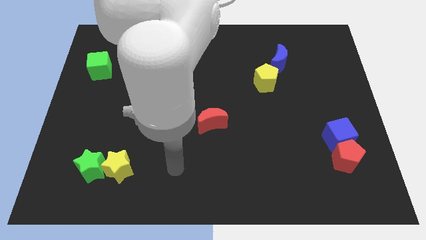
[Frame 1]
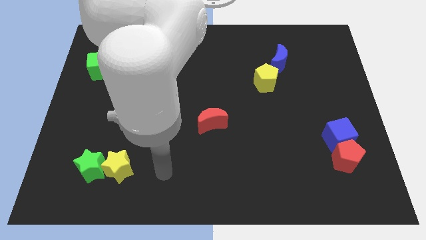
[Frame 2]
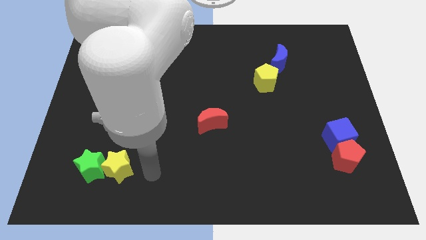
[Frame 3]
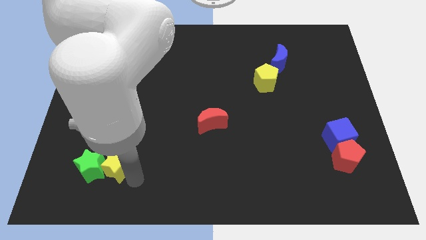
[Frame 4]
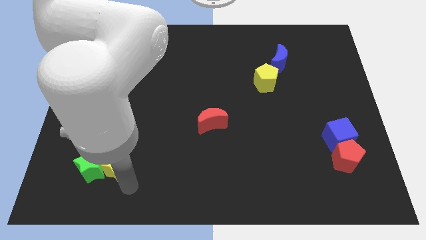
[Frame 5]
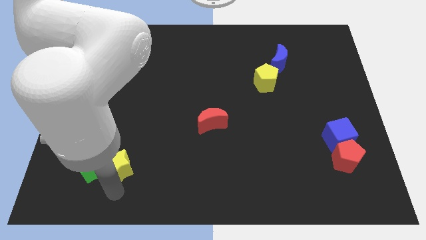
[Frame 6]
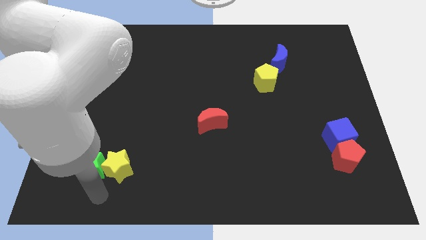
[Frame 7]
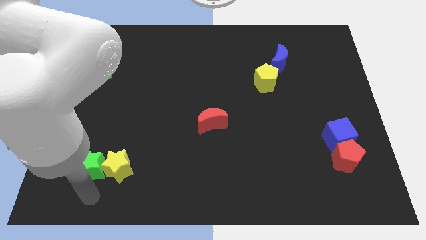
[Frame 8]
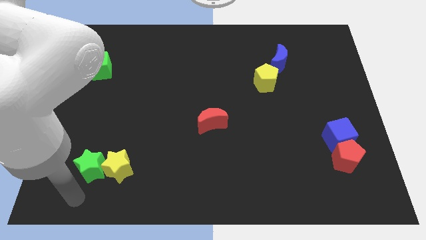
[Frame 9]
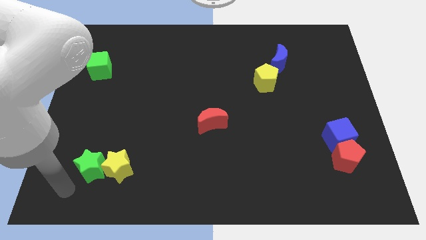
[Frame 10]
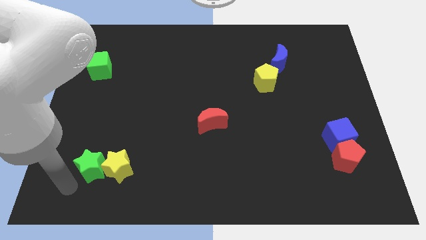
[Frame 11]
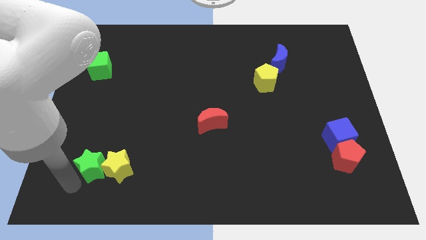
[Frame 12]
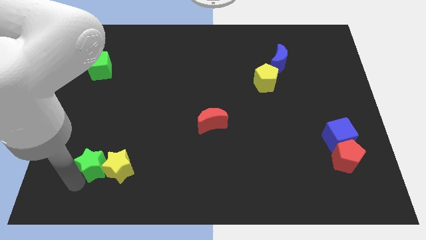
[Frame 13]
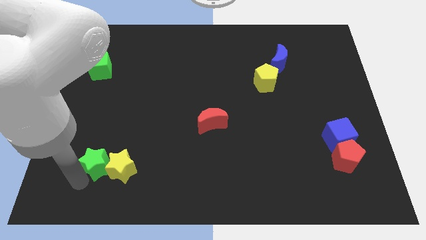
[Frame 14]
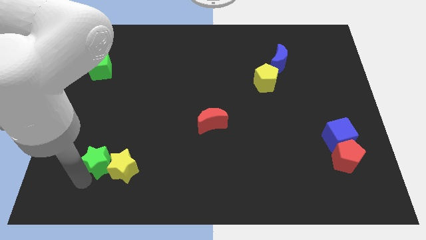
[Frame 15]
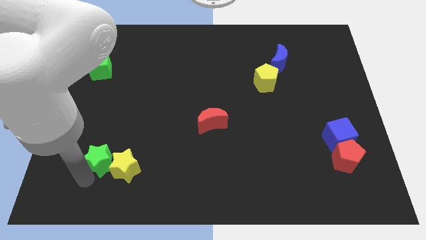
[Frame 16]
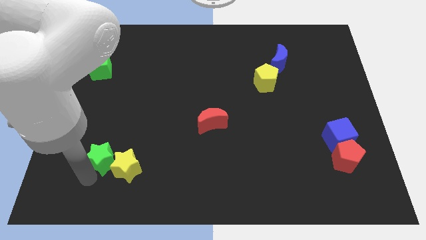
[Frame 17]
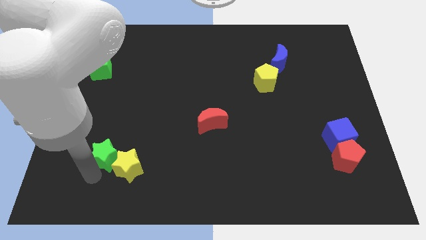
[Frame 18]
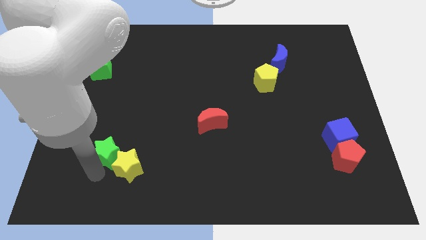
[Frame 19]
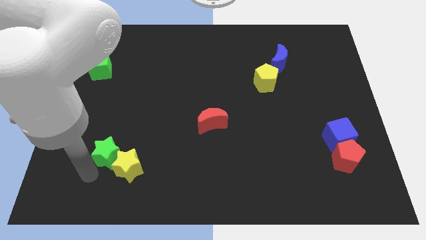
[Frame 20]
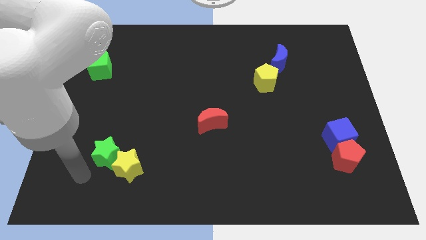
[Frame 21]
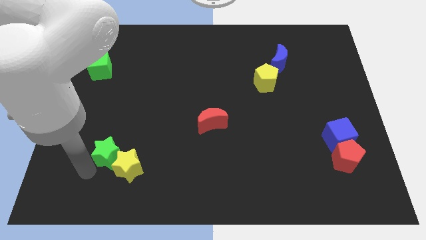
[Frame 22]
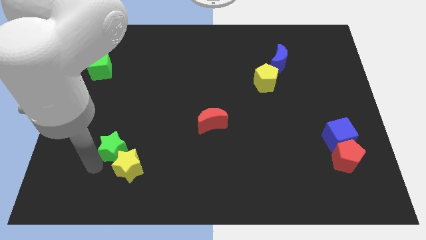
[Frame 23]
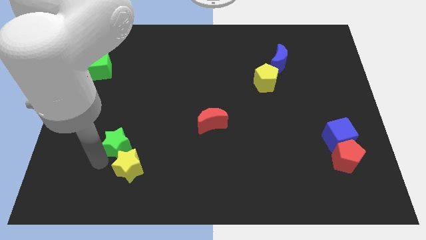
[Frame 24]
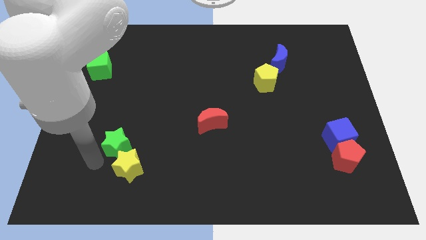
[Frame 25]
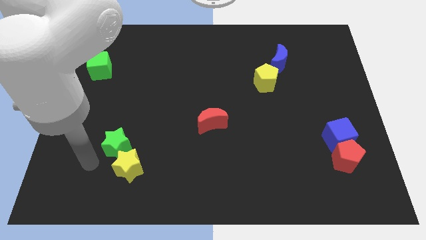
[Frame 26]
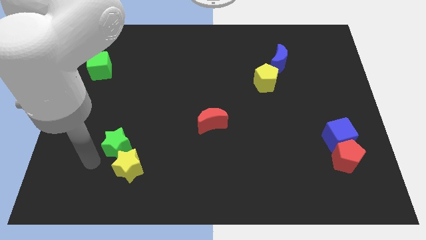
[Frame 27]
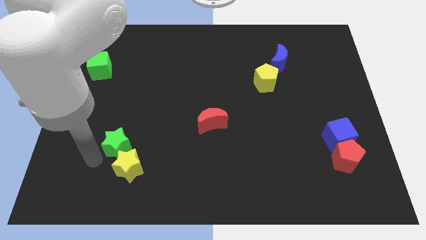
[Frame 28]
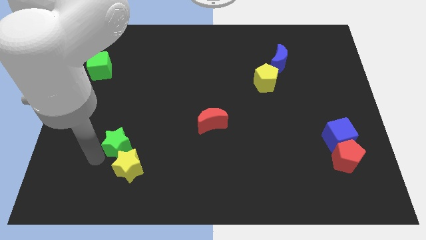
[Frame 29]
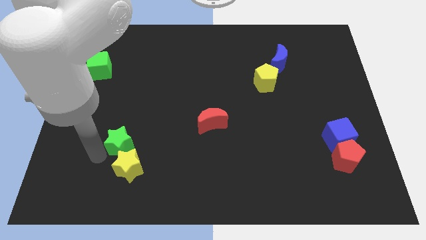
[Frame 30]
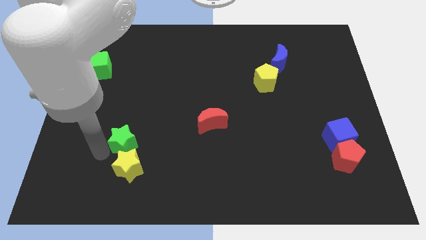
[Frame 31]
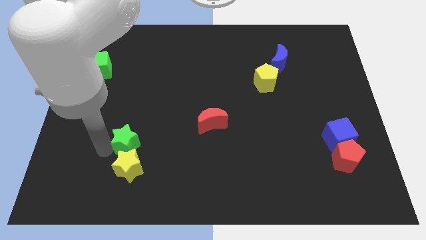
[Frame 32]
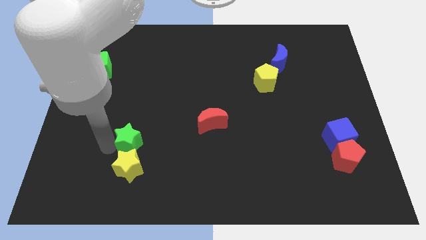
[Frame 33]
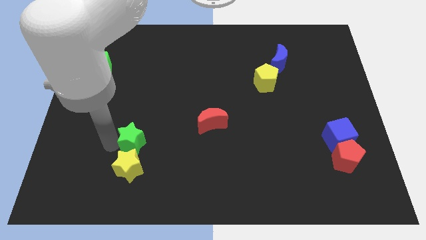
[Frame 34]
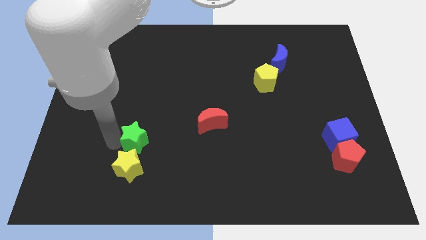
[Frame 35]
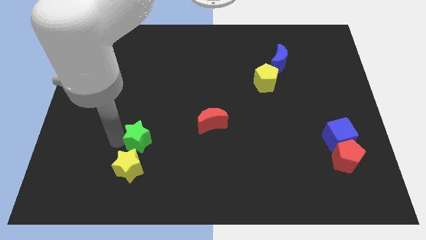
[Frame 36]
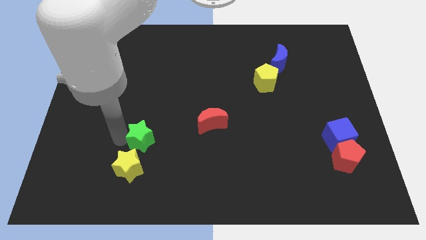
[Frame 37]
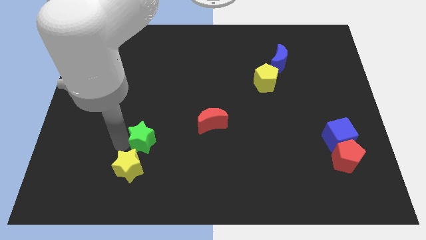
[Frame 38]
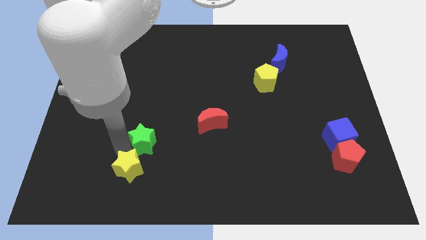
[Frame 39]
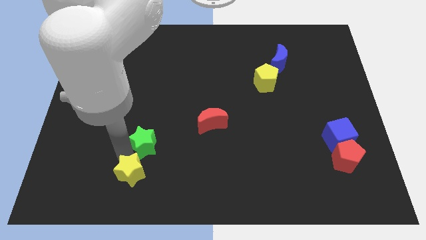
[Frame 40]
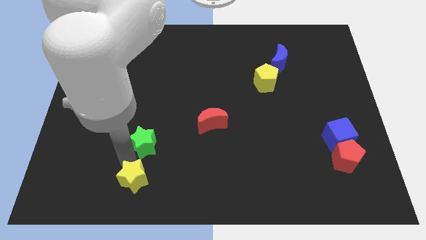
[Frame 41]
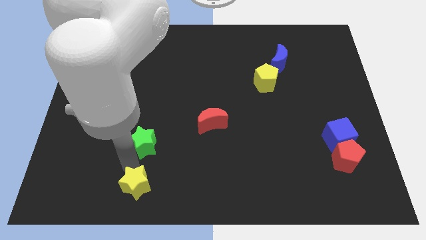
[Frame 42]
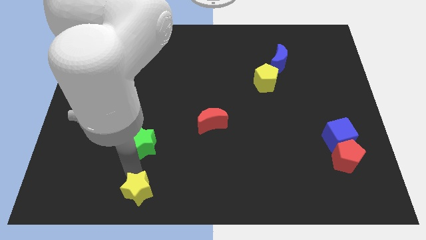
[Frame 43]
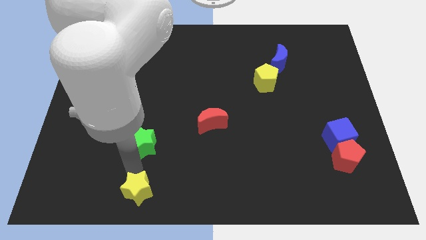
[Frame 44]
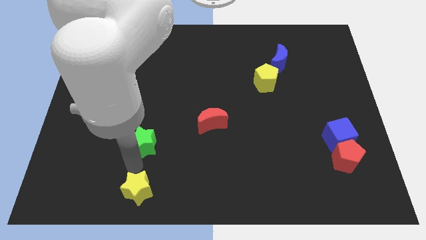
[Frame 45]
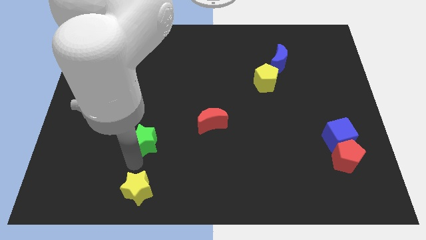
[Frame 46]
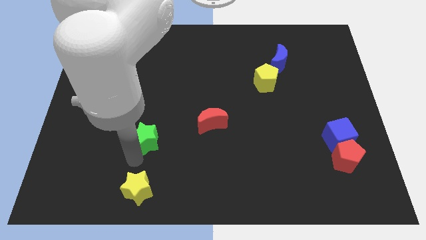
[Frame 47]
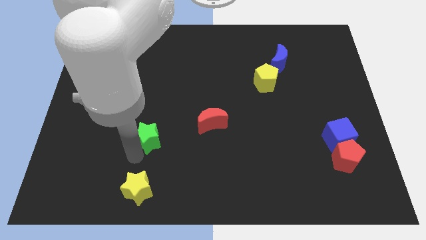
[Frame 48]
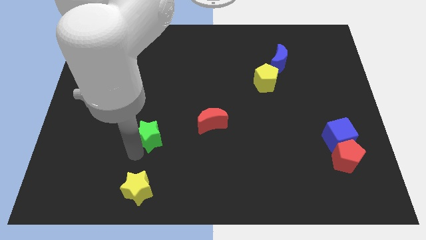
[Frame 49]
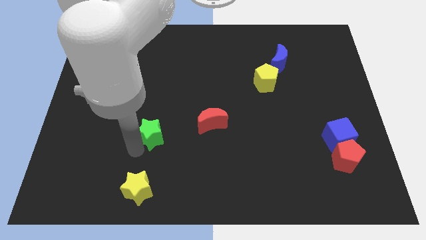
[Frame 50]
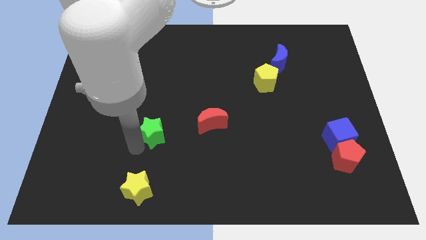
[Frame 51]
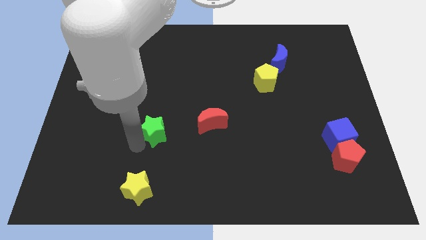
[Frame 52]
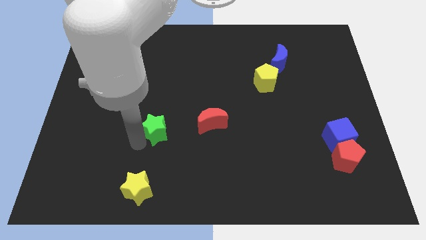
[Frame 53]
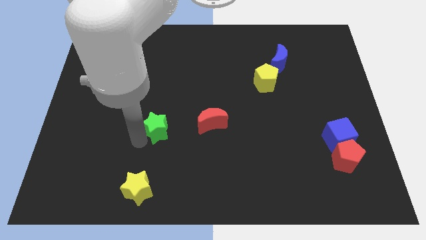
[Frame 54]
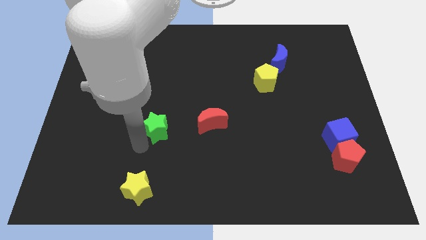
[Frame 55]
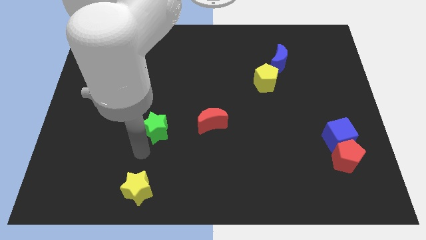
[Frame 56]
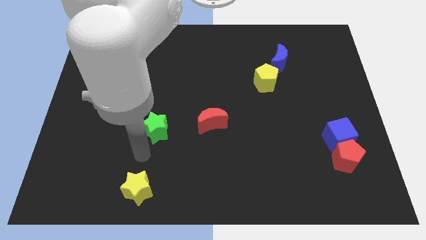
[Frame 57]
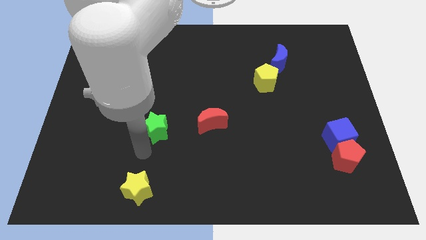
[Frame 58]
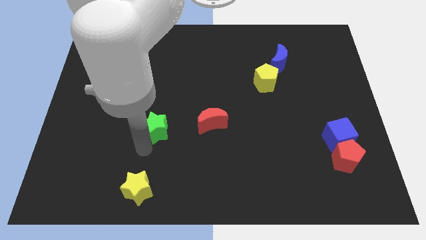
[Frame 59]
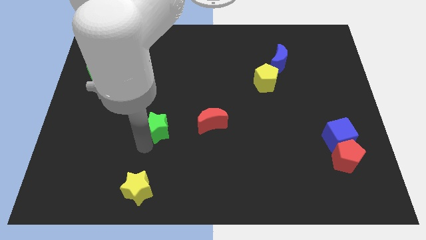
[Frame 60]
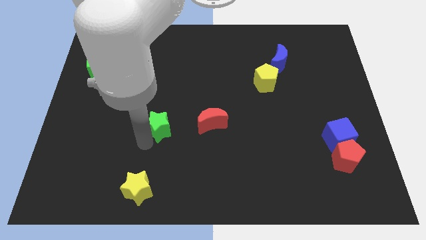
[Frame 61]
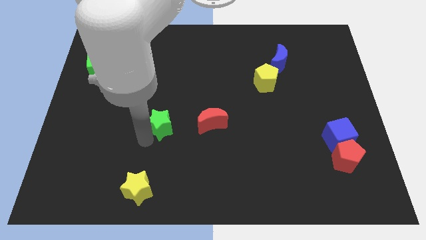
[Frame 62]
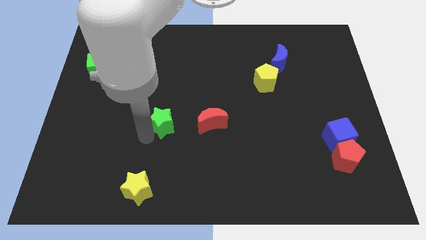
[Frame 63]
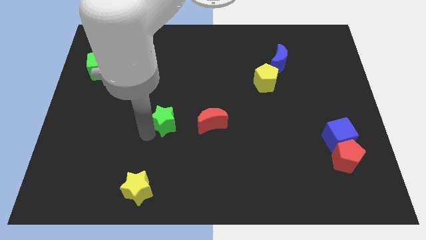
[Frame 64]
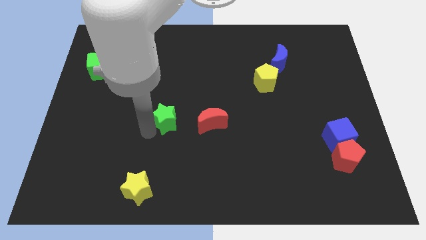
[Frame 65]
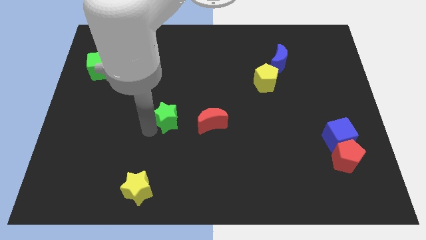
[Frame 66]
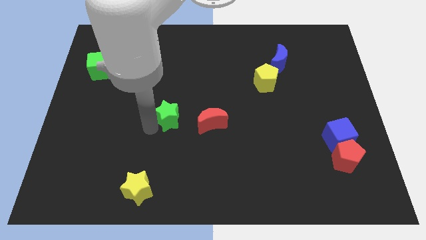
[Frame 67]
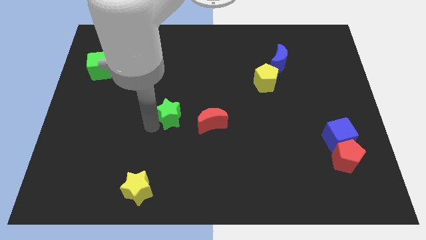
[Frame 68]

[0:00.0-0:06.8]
slide the green star diagonally upwards and to the right

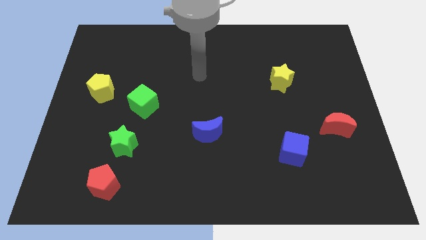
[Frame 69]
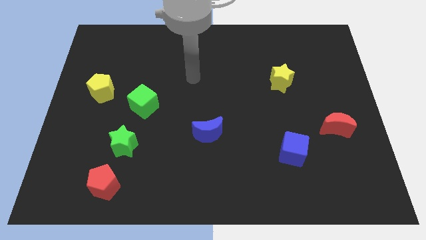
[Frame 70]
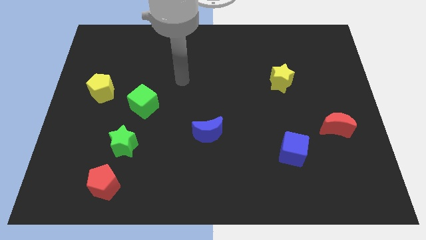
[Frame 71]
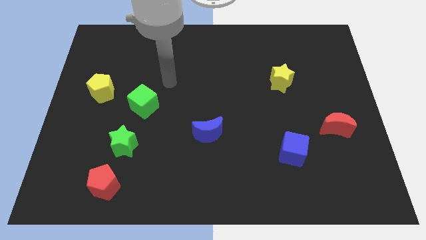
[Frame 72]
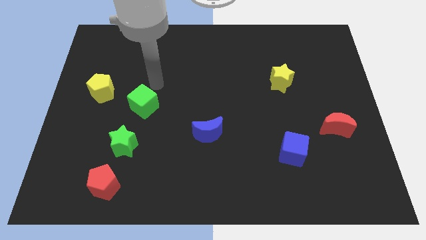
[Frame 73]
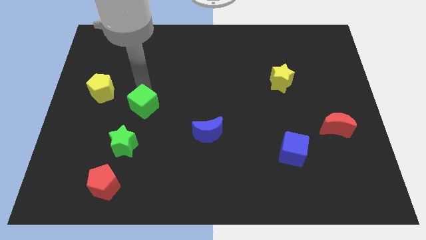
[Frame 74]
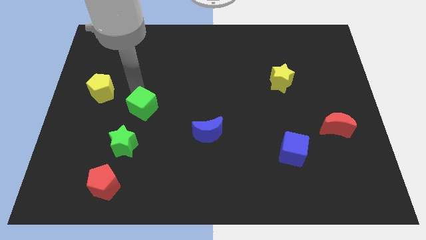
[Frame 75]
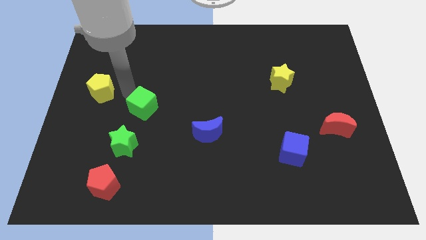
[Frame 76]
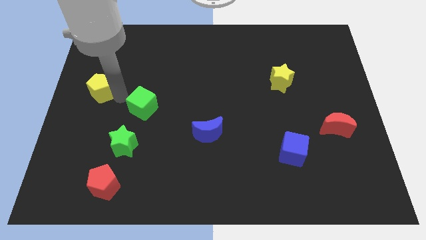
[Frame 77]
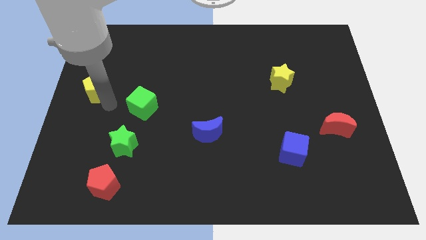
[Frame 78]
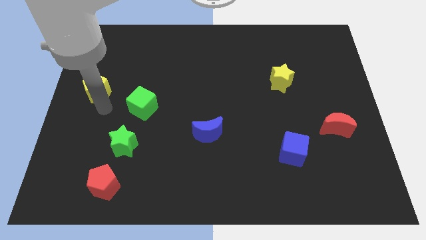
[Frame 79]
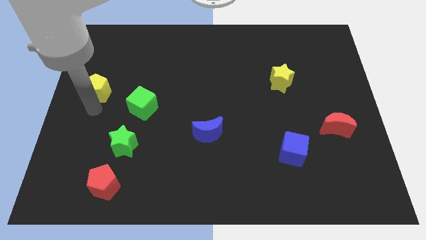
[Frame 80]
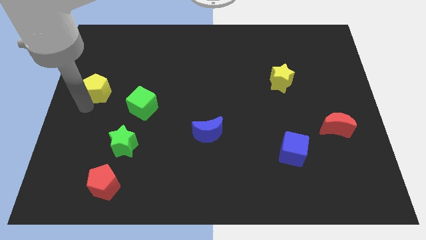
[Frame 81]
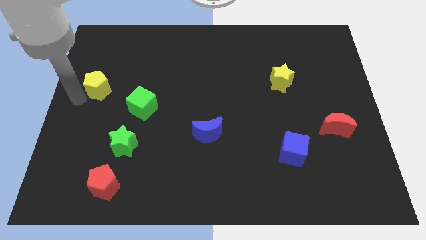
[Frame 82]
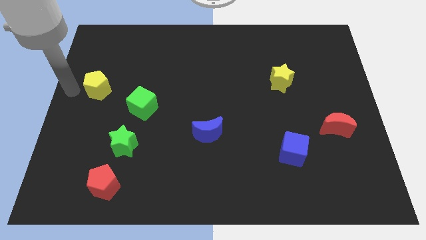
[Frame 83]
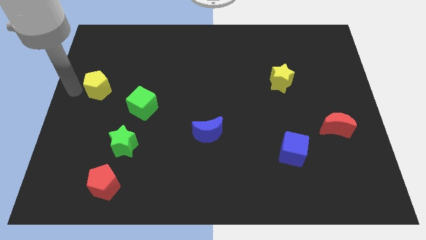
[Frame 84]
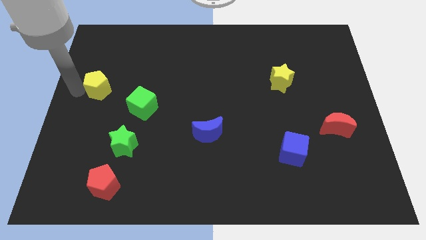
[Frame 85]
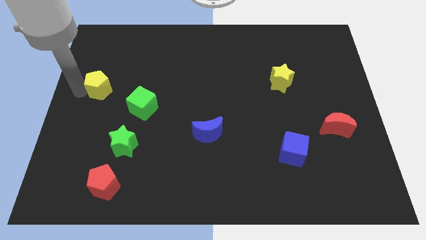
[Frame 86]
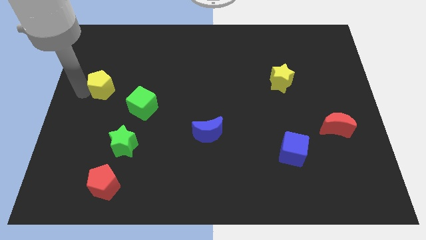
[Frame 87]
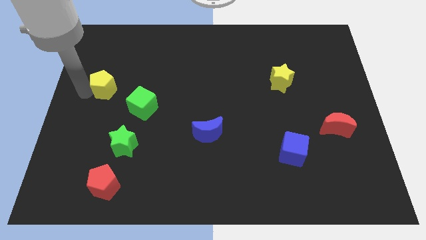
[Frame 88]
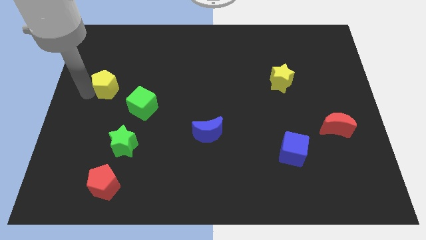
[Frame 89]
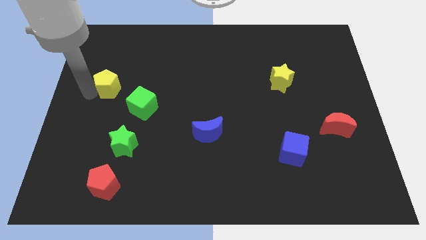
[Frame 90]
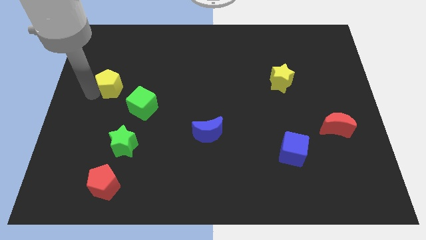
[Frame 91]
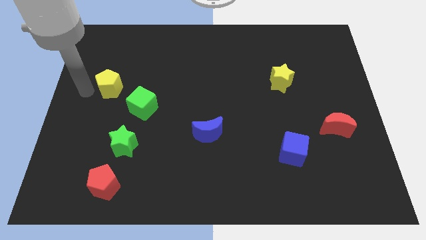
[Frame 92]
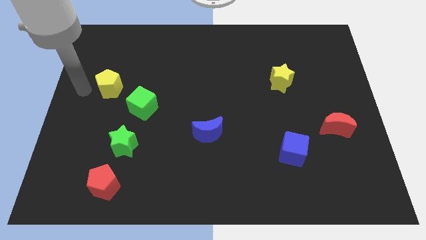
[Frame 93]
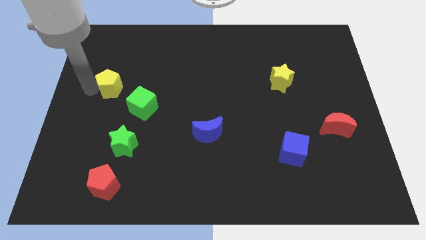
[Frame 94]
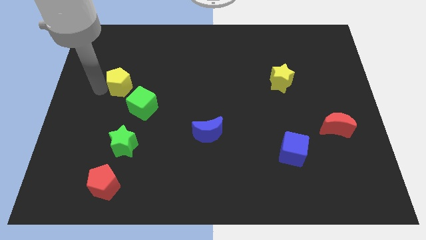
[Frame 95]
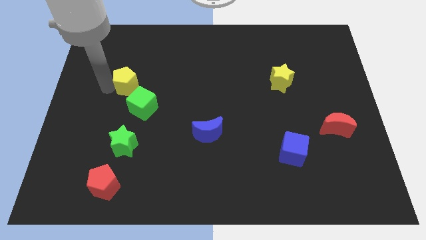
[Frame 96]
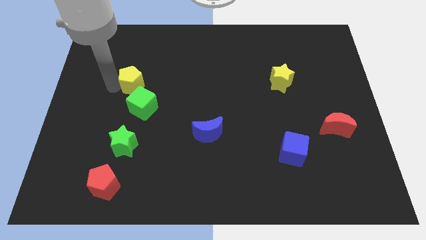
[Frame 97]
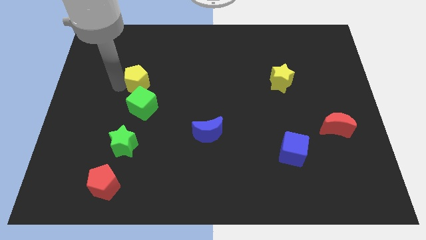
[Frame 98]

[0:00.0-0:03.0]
push the yellow pentagon somewhat to the right
